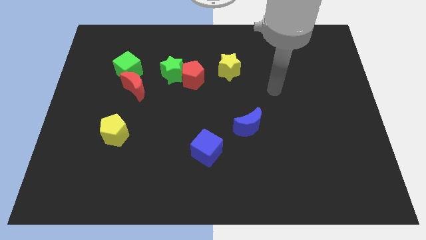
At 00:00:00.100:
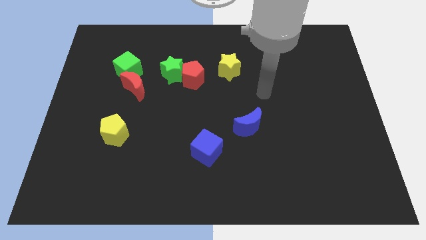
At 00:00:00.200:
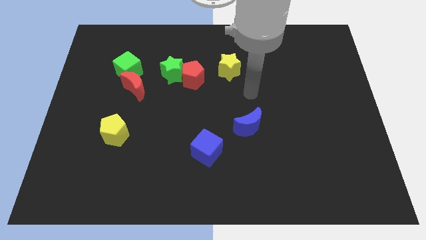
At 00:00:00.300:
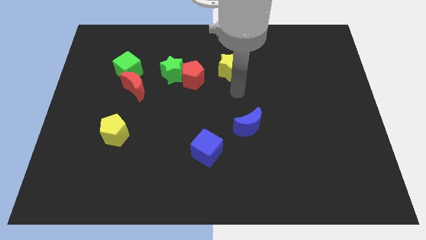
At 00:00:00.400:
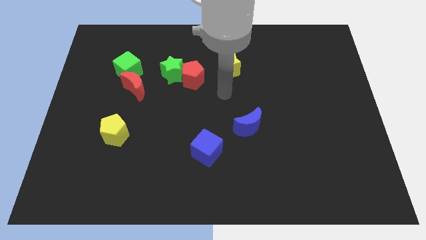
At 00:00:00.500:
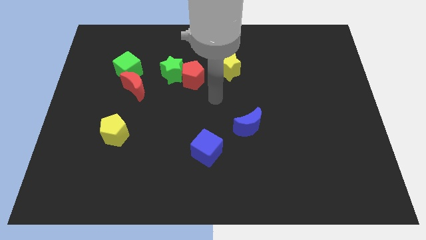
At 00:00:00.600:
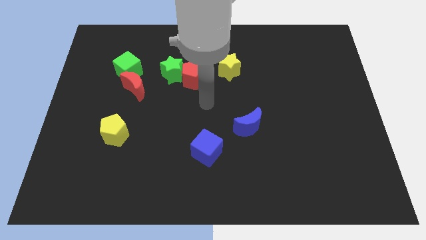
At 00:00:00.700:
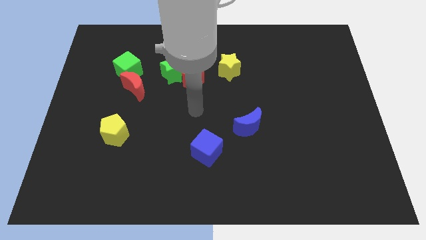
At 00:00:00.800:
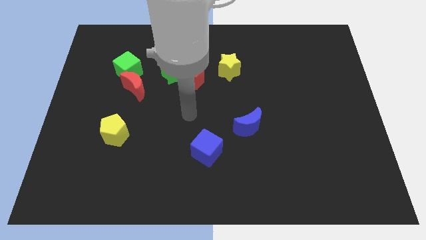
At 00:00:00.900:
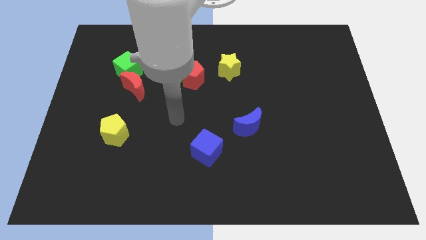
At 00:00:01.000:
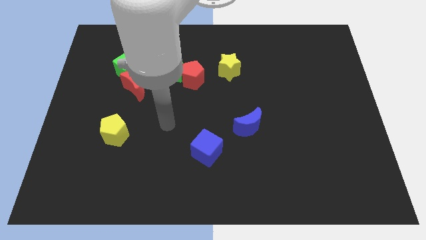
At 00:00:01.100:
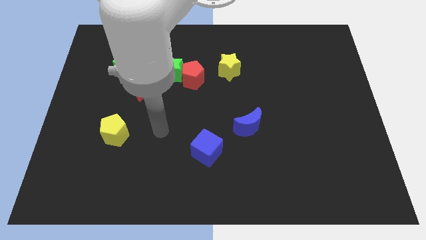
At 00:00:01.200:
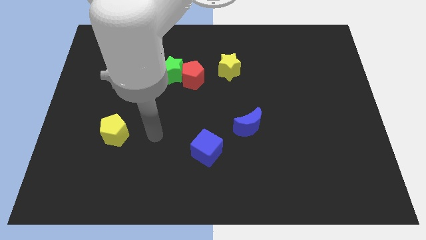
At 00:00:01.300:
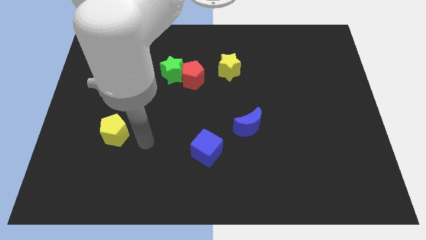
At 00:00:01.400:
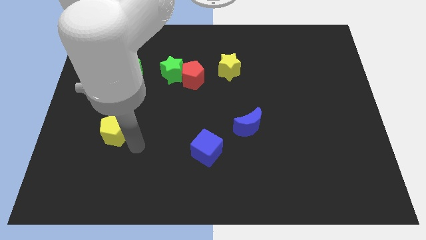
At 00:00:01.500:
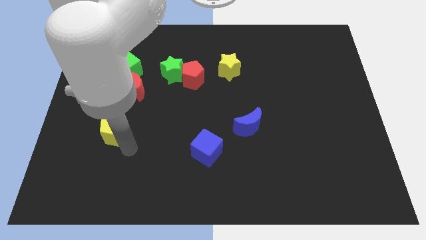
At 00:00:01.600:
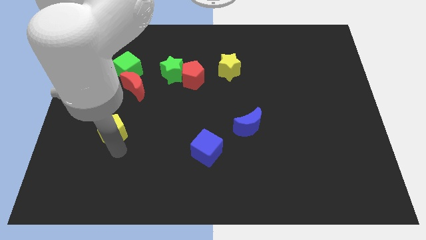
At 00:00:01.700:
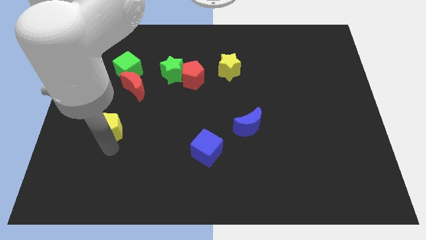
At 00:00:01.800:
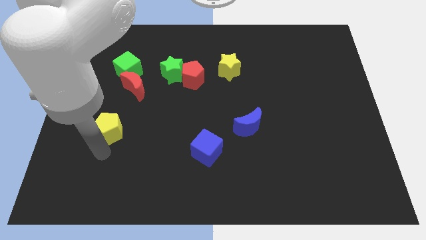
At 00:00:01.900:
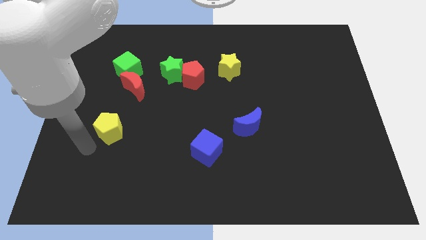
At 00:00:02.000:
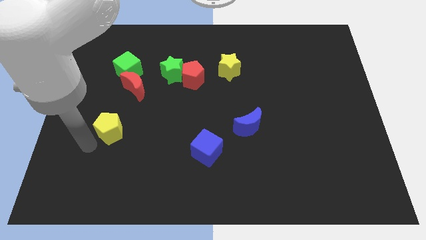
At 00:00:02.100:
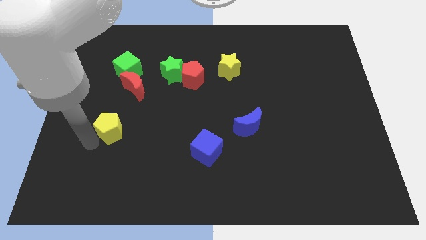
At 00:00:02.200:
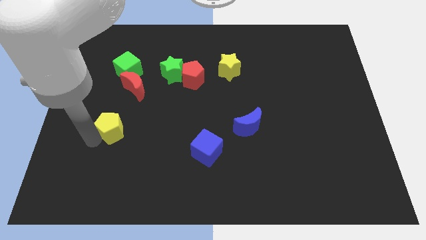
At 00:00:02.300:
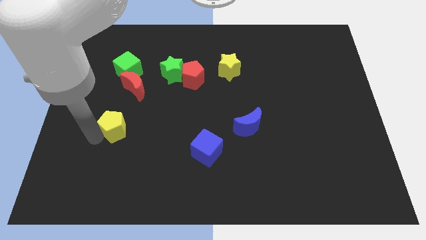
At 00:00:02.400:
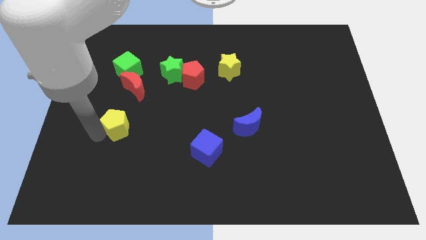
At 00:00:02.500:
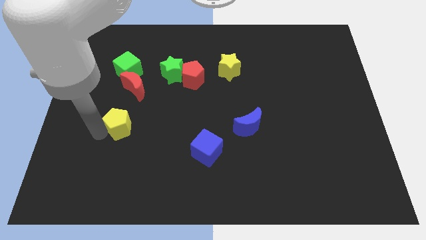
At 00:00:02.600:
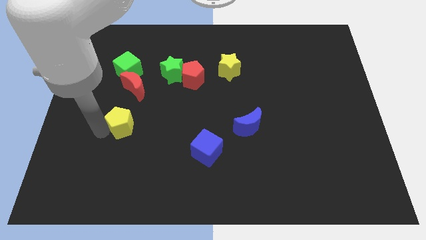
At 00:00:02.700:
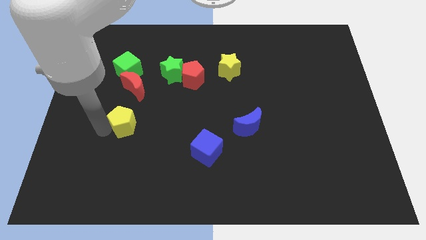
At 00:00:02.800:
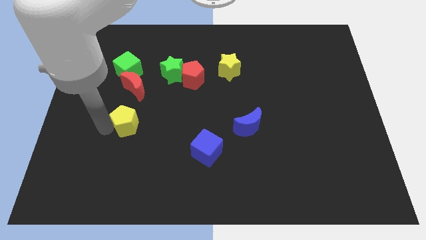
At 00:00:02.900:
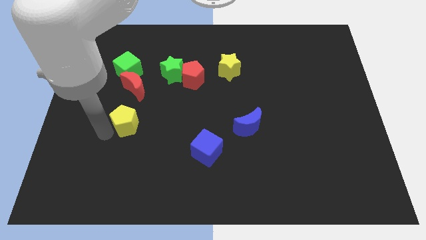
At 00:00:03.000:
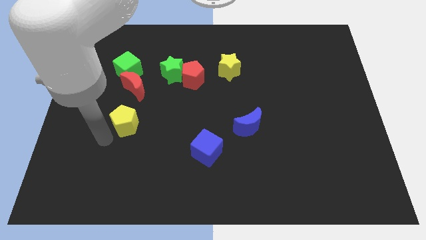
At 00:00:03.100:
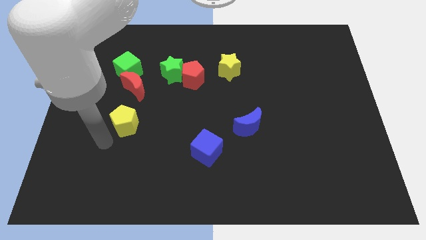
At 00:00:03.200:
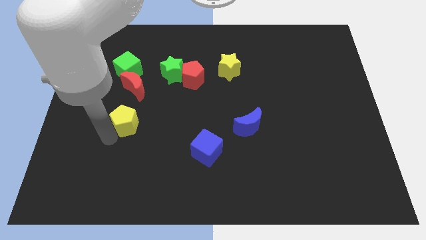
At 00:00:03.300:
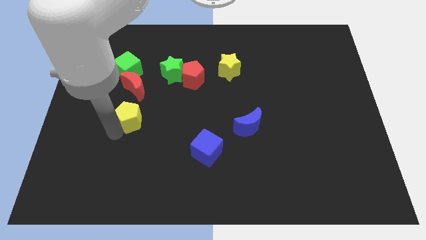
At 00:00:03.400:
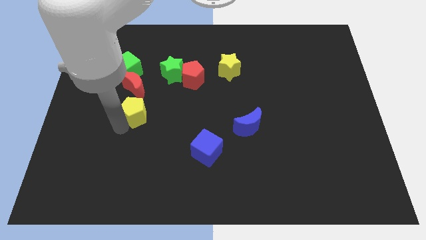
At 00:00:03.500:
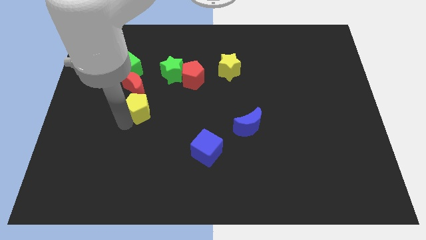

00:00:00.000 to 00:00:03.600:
slide the yellow pentagon upwards and to the right somewhat

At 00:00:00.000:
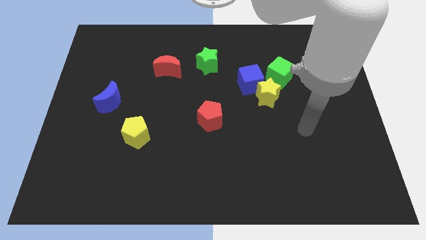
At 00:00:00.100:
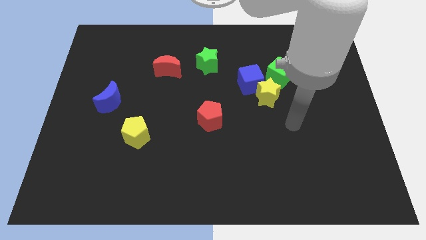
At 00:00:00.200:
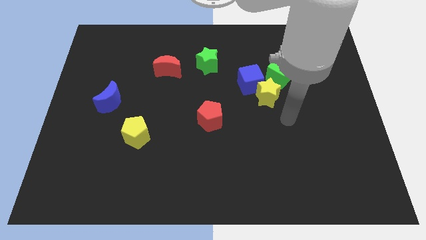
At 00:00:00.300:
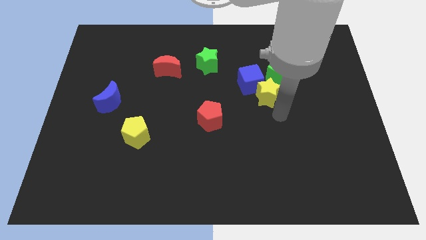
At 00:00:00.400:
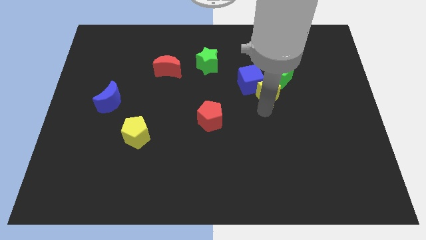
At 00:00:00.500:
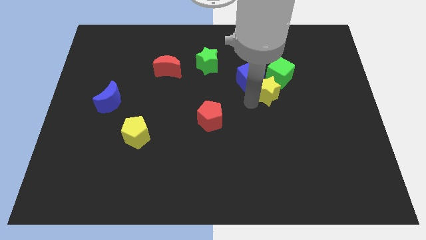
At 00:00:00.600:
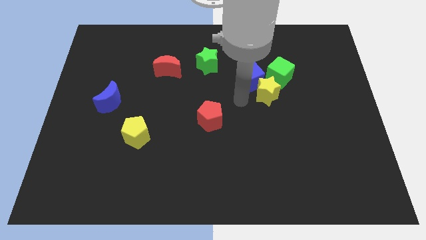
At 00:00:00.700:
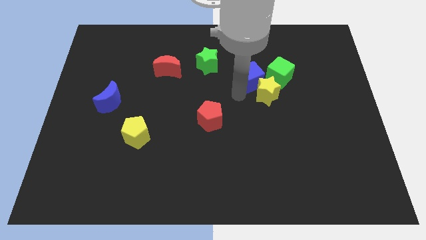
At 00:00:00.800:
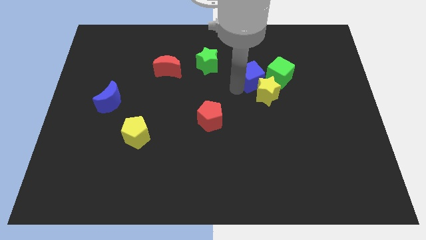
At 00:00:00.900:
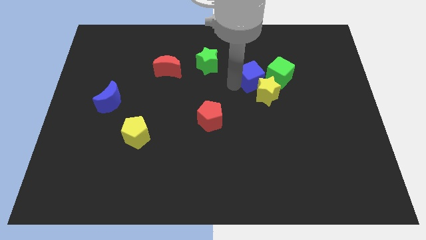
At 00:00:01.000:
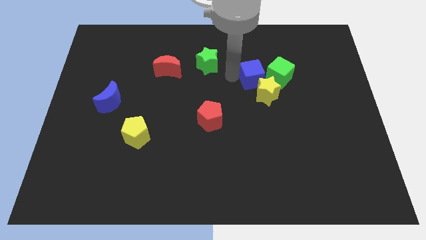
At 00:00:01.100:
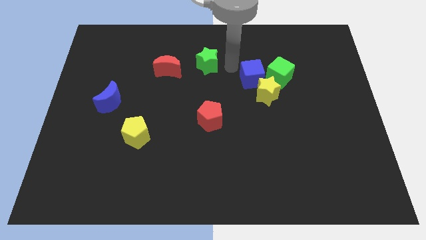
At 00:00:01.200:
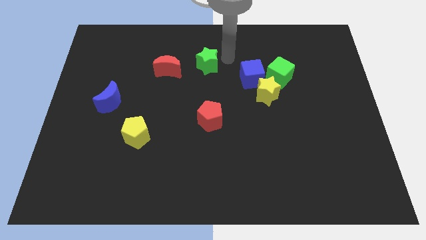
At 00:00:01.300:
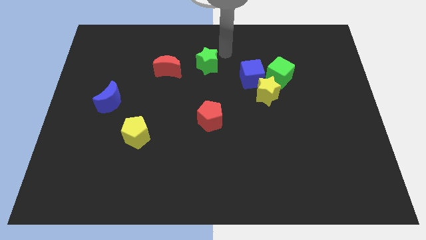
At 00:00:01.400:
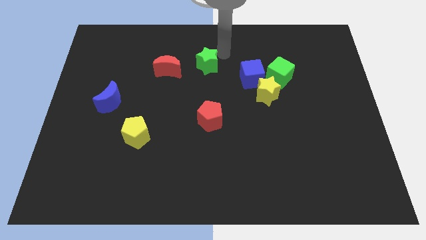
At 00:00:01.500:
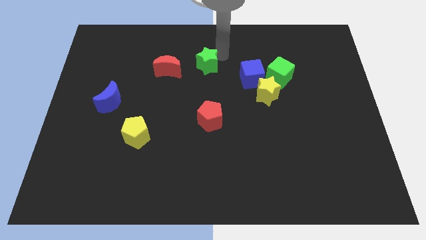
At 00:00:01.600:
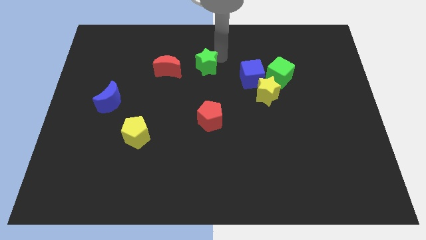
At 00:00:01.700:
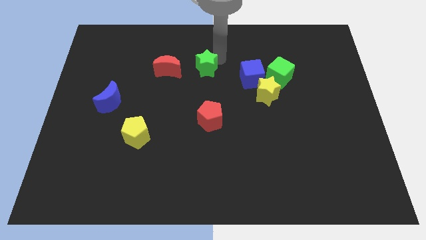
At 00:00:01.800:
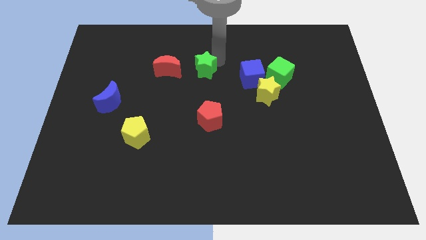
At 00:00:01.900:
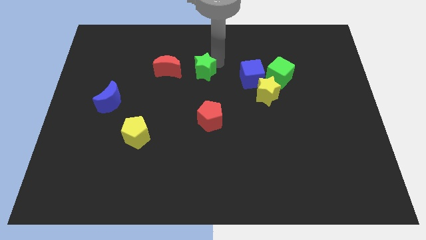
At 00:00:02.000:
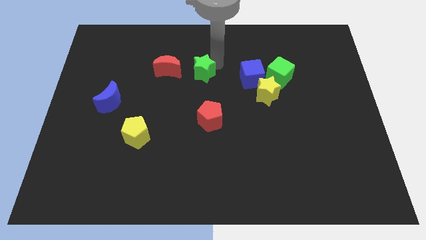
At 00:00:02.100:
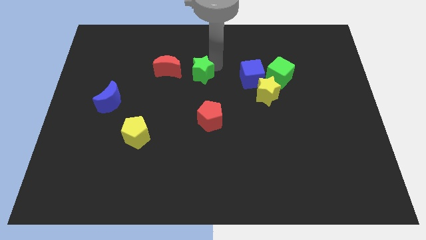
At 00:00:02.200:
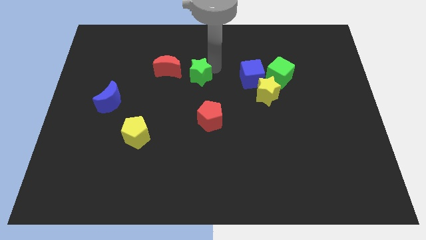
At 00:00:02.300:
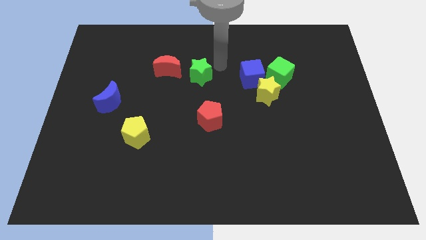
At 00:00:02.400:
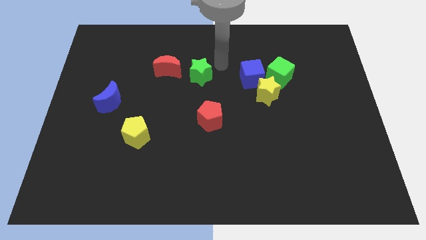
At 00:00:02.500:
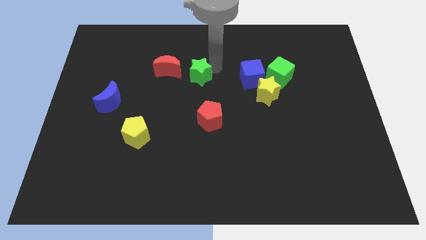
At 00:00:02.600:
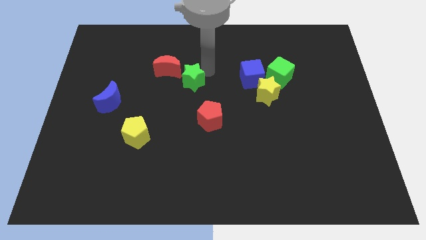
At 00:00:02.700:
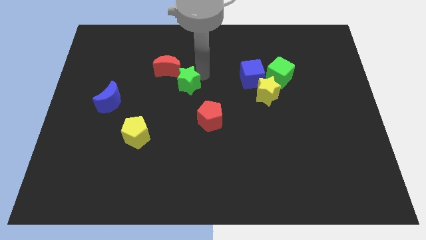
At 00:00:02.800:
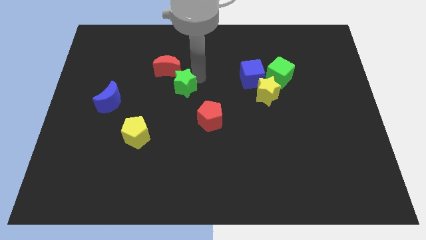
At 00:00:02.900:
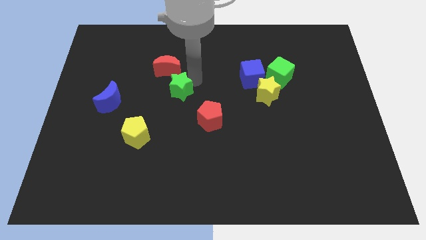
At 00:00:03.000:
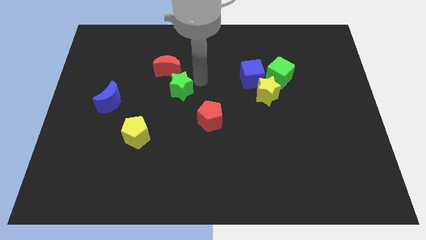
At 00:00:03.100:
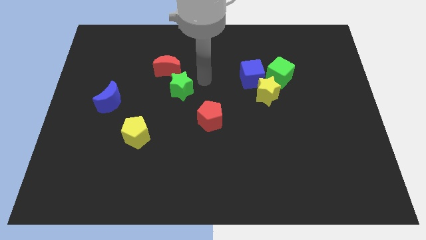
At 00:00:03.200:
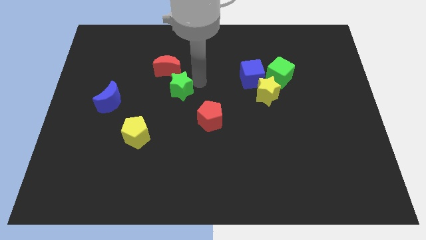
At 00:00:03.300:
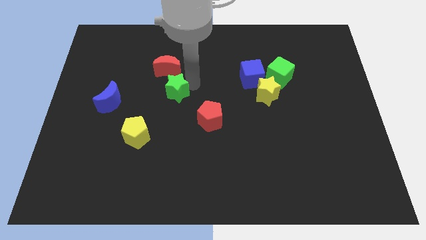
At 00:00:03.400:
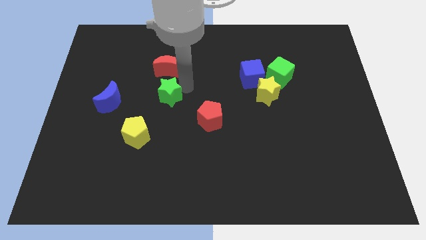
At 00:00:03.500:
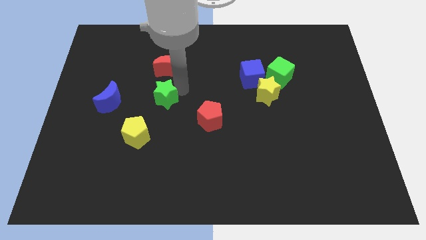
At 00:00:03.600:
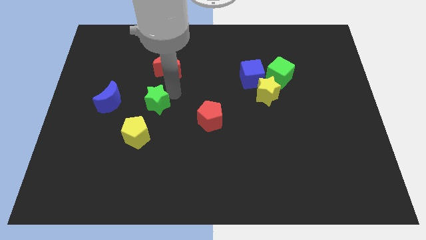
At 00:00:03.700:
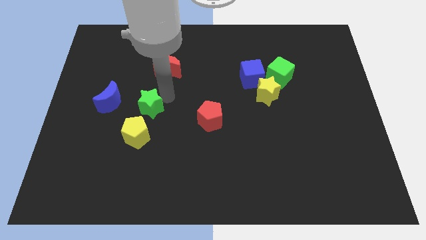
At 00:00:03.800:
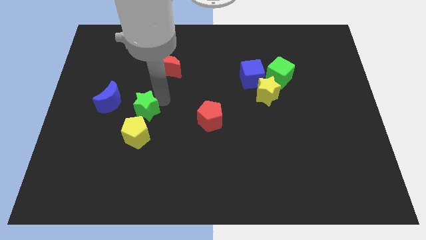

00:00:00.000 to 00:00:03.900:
push the green star downwards and to the left

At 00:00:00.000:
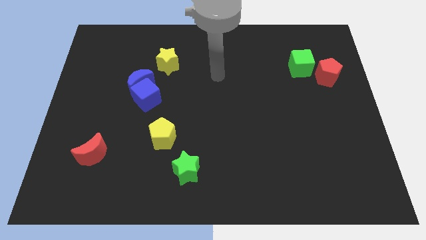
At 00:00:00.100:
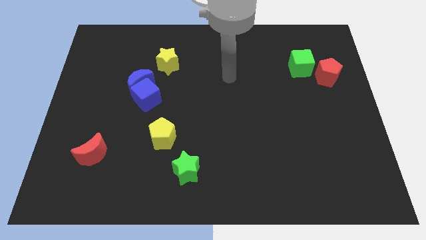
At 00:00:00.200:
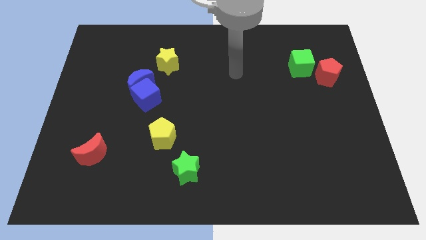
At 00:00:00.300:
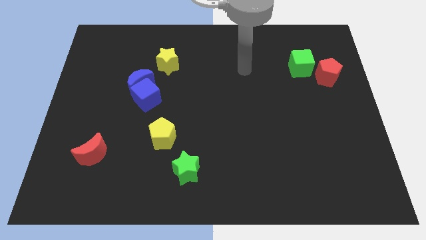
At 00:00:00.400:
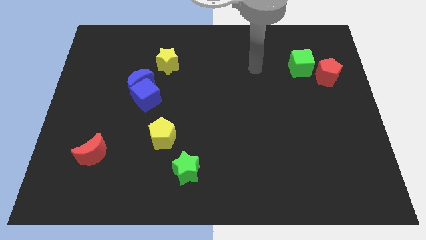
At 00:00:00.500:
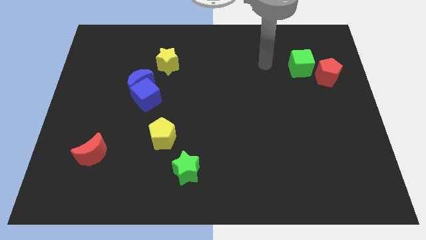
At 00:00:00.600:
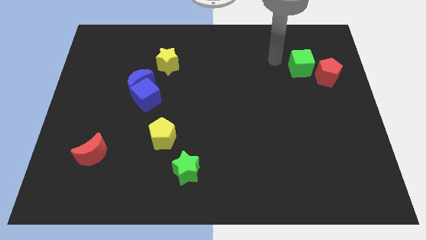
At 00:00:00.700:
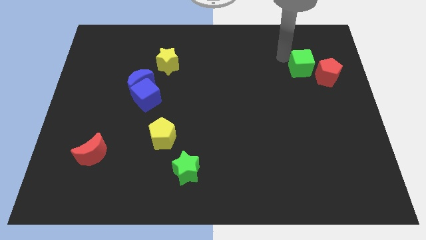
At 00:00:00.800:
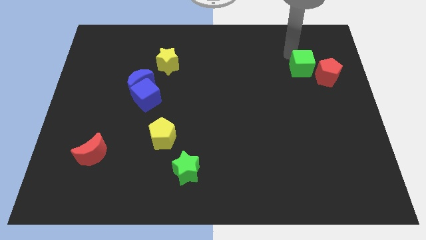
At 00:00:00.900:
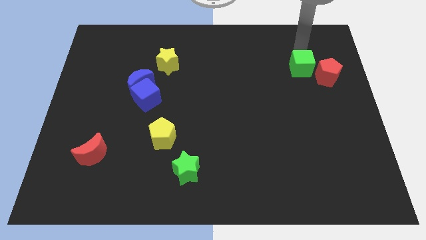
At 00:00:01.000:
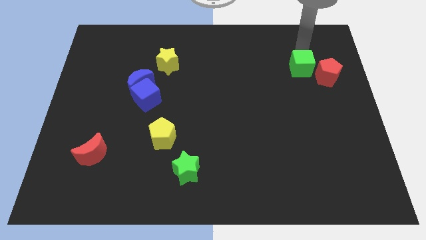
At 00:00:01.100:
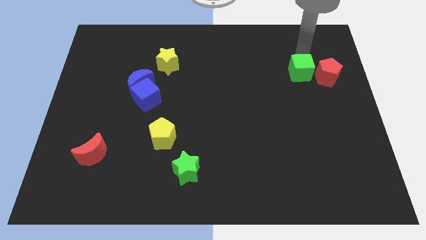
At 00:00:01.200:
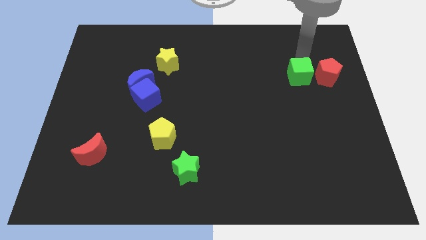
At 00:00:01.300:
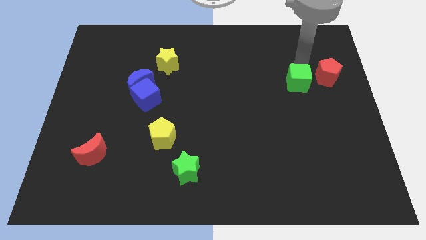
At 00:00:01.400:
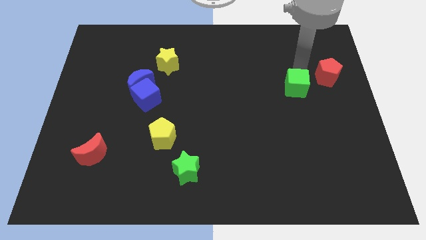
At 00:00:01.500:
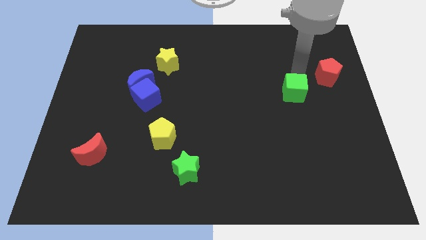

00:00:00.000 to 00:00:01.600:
move the green cube down slightly
